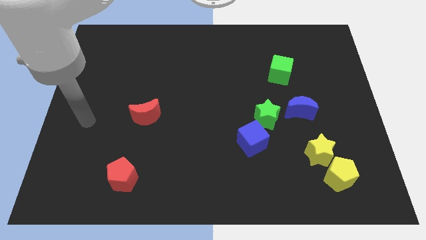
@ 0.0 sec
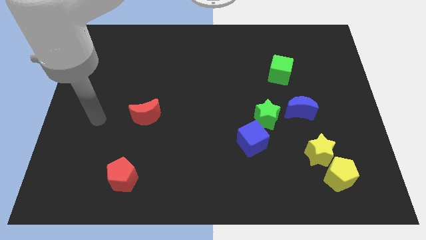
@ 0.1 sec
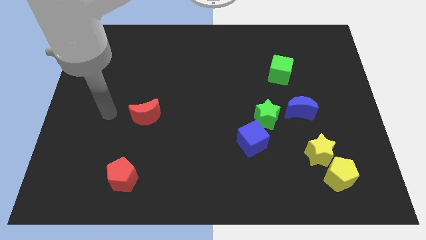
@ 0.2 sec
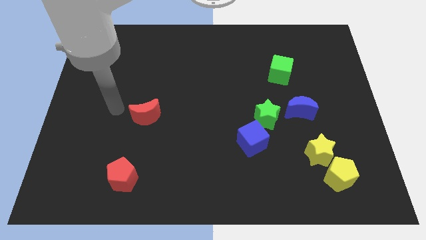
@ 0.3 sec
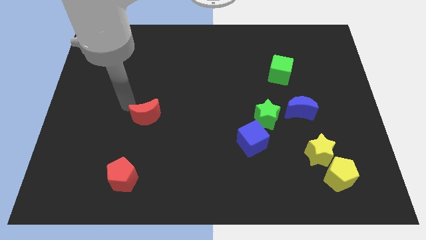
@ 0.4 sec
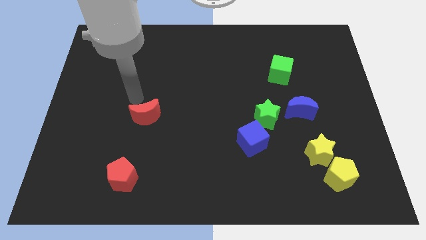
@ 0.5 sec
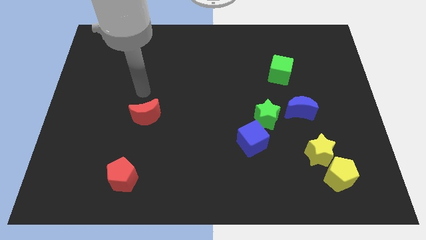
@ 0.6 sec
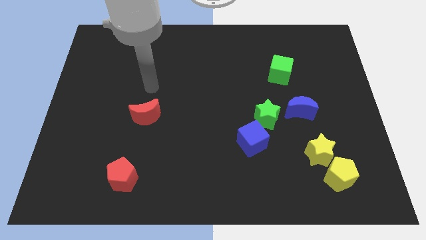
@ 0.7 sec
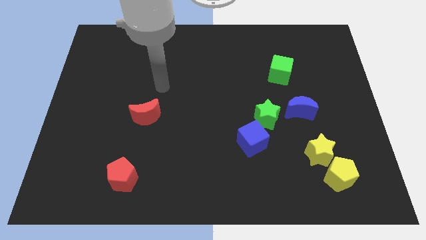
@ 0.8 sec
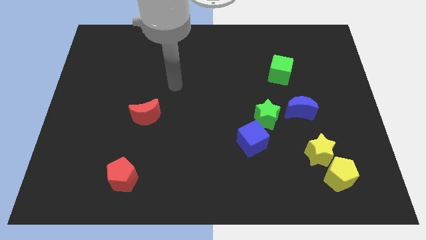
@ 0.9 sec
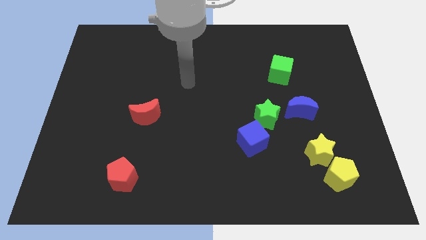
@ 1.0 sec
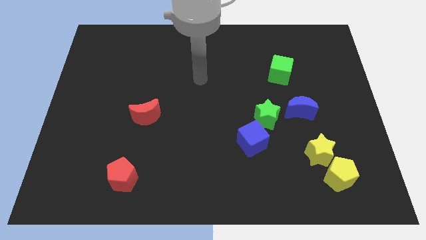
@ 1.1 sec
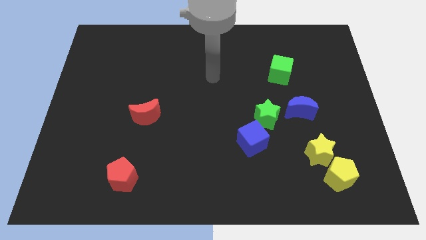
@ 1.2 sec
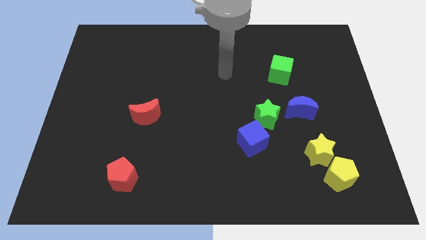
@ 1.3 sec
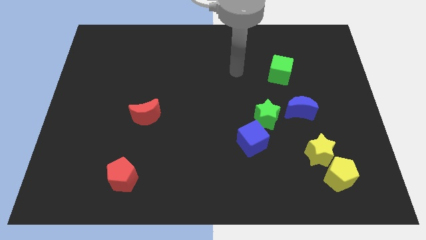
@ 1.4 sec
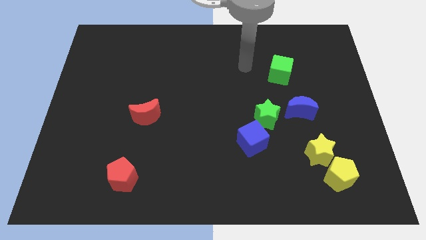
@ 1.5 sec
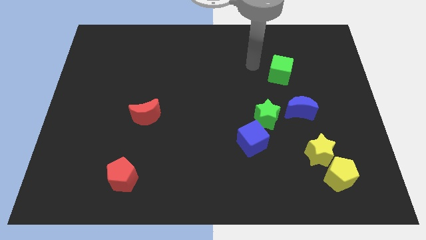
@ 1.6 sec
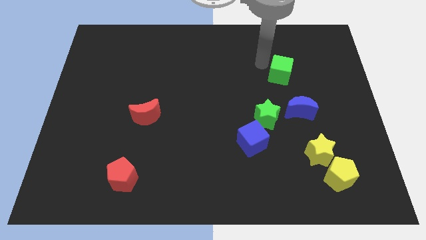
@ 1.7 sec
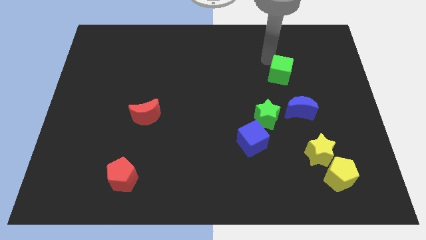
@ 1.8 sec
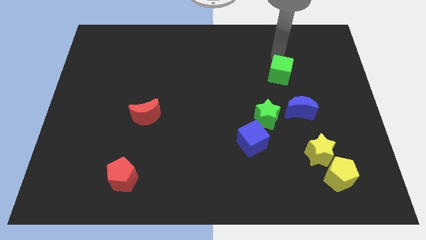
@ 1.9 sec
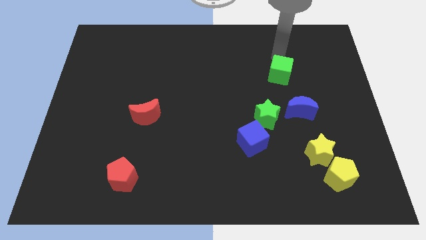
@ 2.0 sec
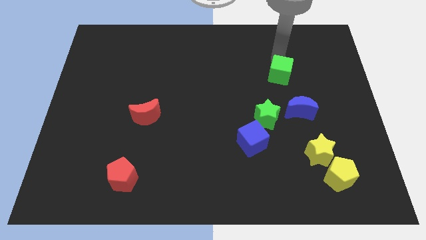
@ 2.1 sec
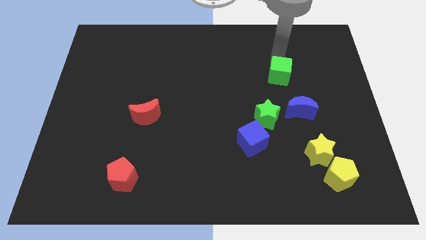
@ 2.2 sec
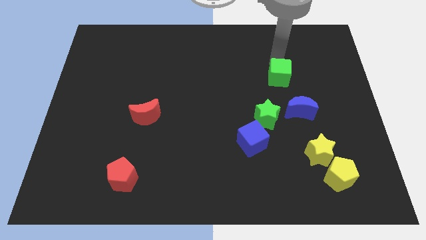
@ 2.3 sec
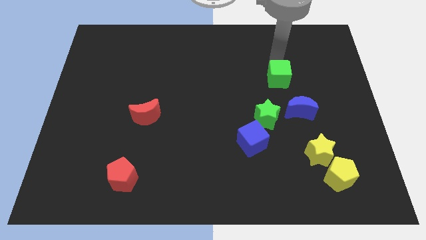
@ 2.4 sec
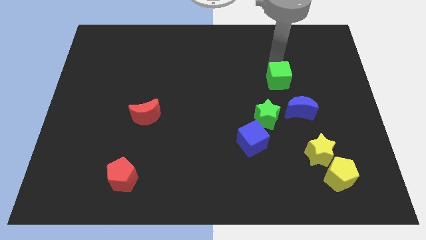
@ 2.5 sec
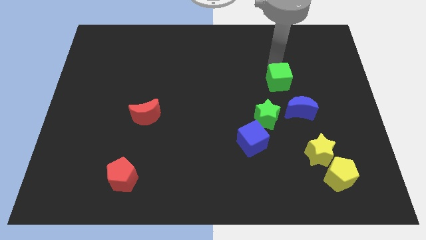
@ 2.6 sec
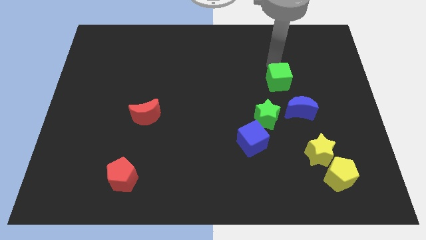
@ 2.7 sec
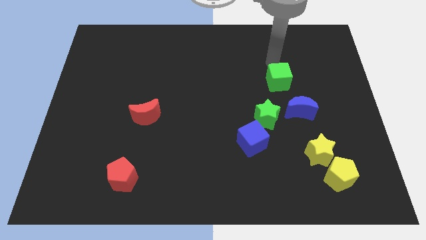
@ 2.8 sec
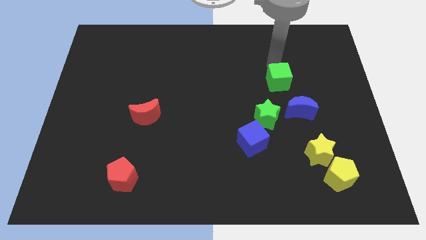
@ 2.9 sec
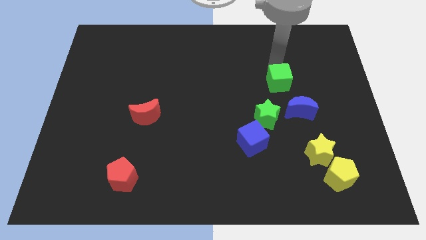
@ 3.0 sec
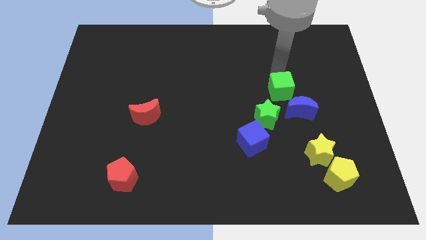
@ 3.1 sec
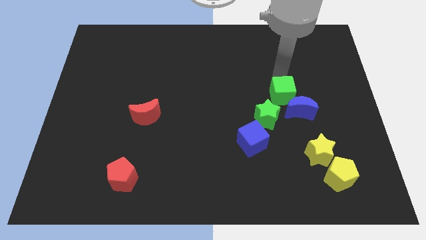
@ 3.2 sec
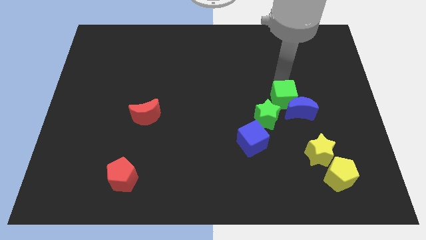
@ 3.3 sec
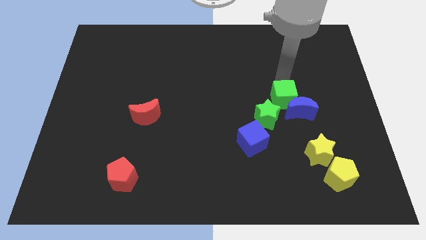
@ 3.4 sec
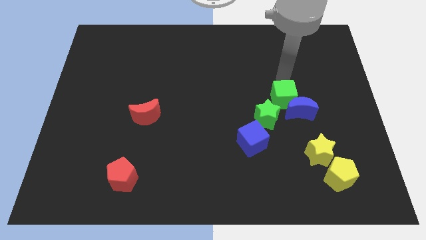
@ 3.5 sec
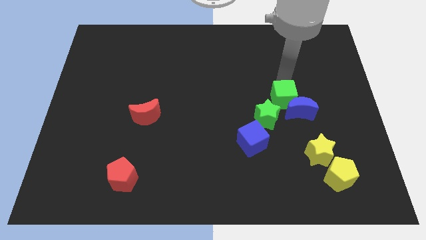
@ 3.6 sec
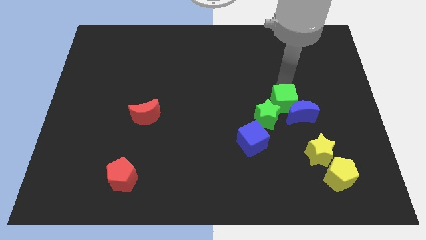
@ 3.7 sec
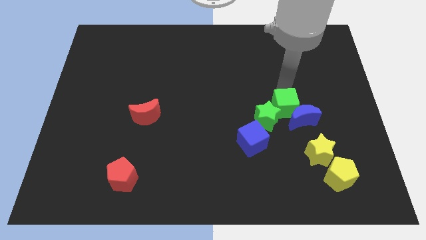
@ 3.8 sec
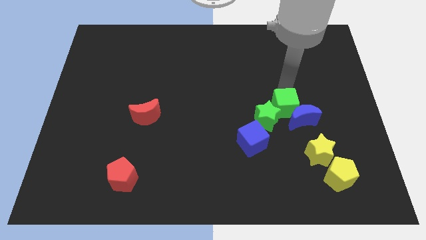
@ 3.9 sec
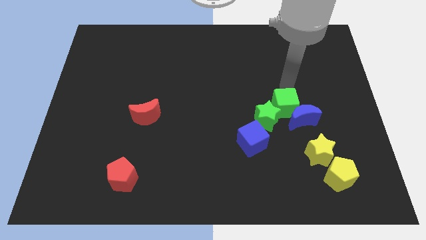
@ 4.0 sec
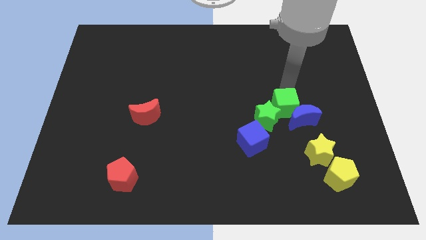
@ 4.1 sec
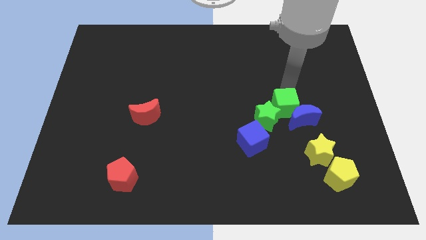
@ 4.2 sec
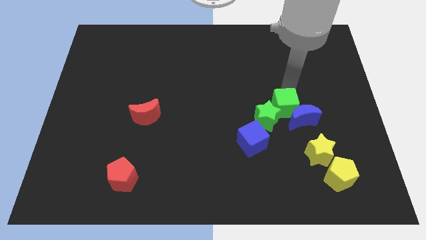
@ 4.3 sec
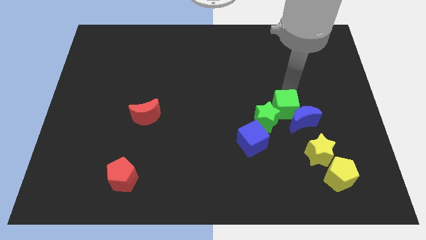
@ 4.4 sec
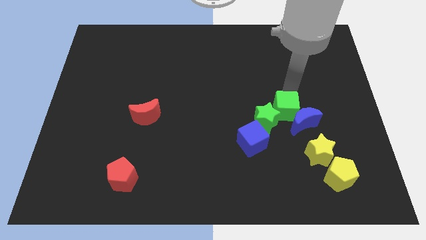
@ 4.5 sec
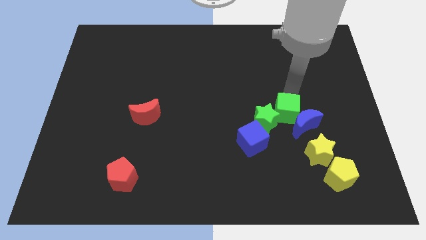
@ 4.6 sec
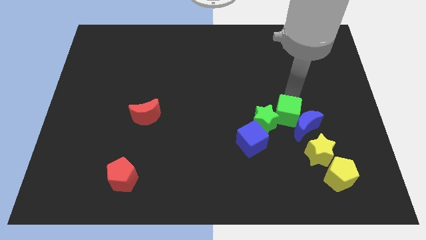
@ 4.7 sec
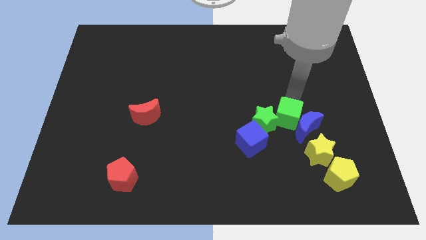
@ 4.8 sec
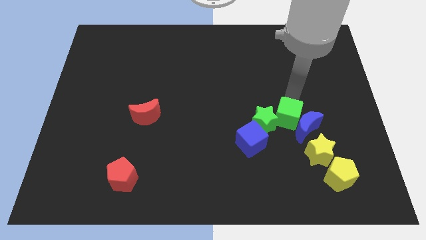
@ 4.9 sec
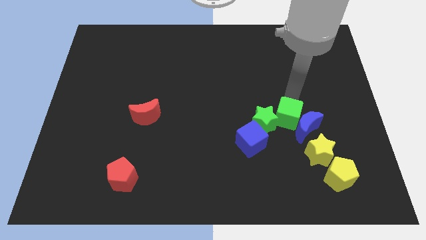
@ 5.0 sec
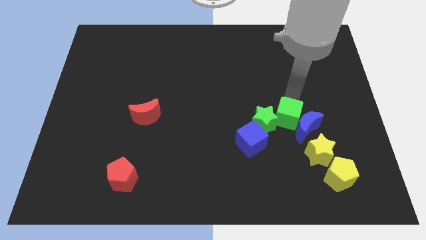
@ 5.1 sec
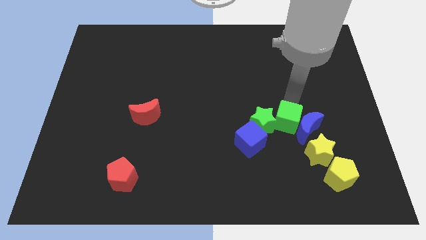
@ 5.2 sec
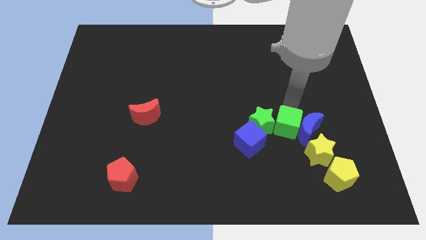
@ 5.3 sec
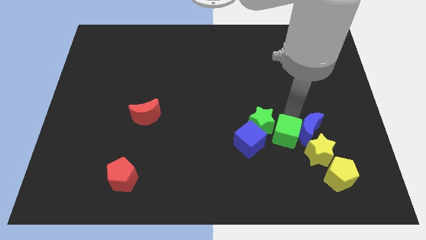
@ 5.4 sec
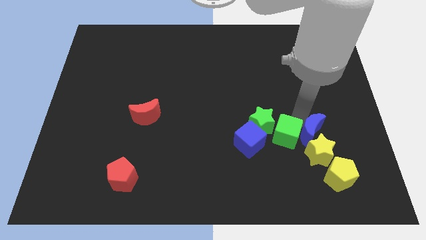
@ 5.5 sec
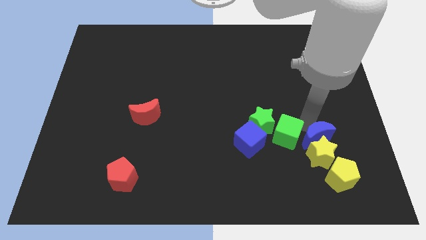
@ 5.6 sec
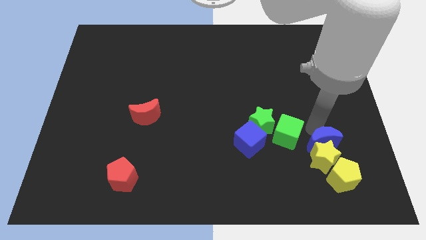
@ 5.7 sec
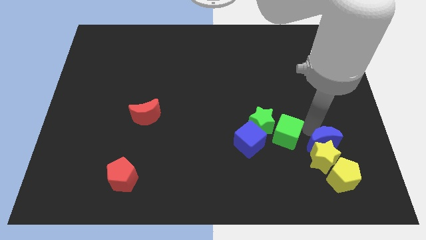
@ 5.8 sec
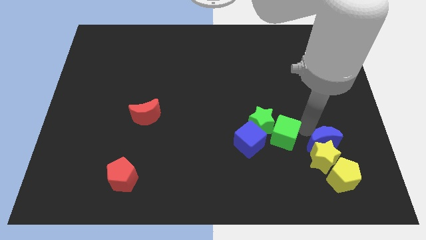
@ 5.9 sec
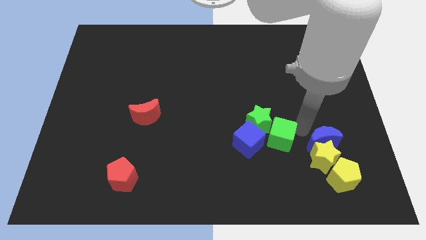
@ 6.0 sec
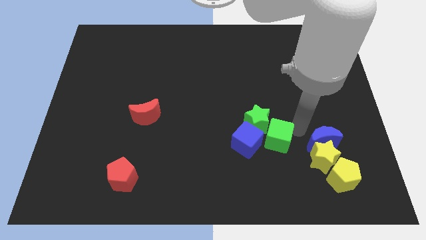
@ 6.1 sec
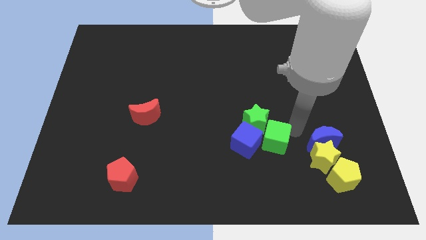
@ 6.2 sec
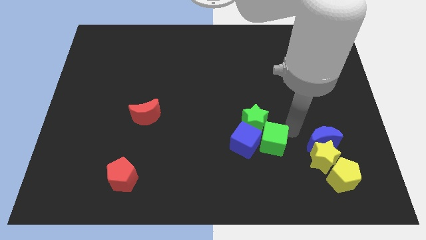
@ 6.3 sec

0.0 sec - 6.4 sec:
push the green cube next to the blue cube

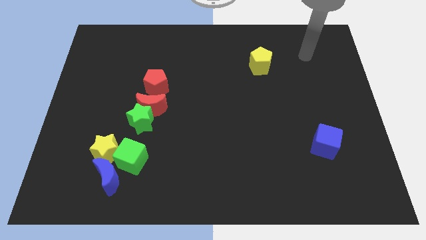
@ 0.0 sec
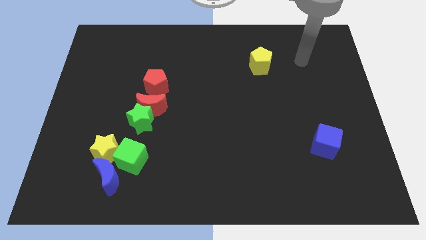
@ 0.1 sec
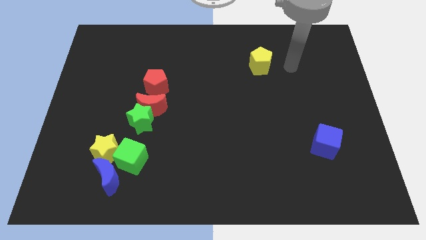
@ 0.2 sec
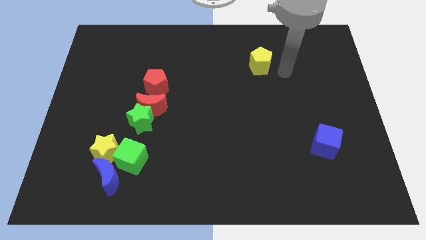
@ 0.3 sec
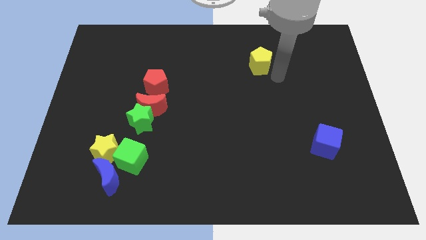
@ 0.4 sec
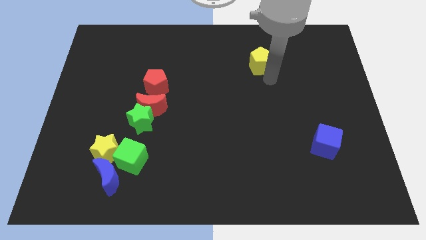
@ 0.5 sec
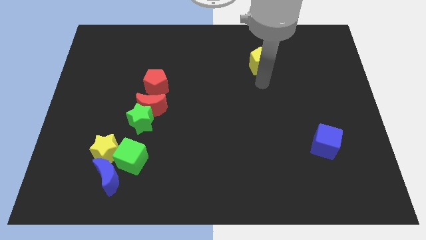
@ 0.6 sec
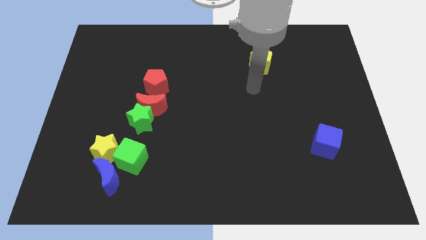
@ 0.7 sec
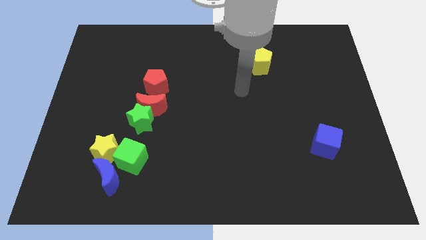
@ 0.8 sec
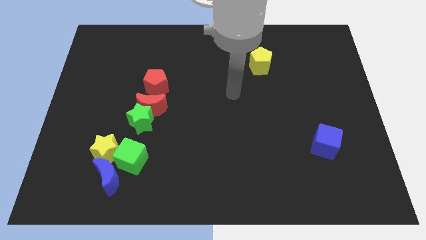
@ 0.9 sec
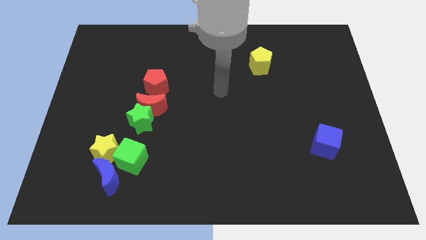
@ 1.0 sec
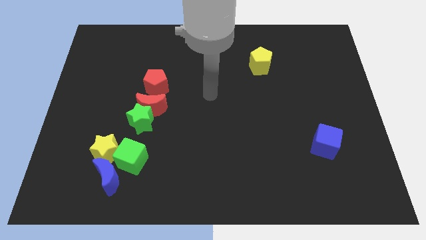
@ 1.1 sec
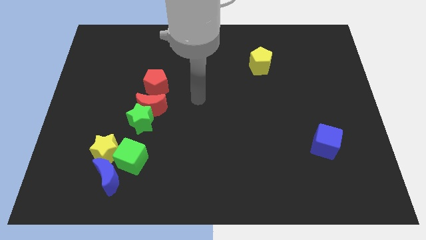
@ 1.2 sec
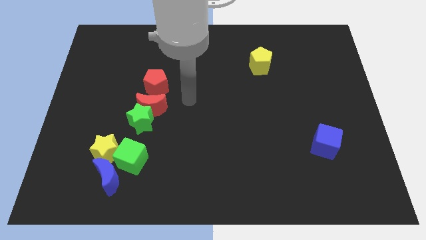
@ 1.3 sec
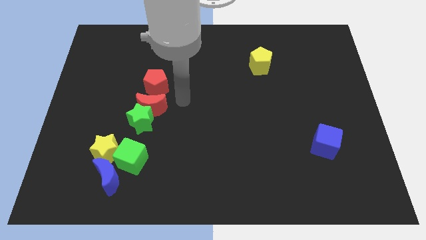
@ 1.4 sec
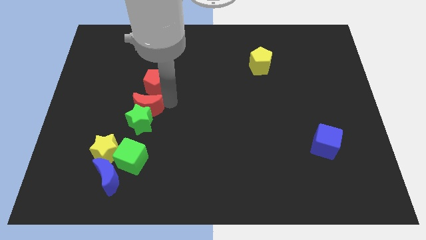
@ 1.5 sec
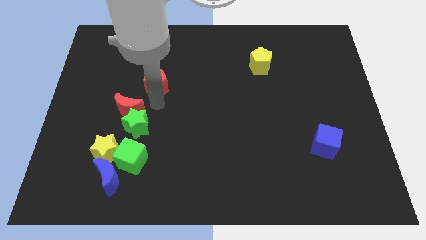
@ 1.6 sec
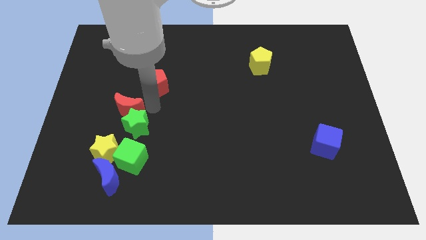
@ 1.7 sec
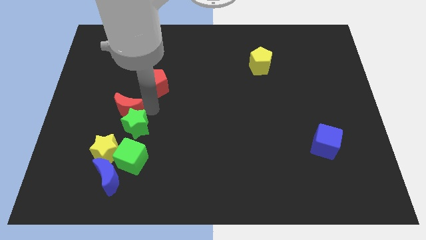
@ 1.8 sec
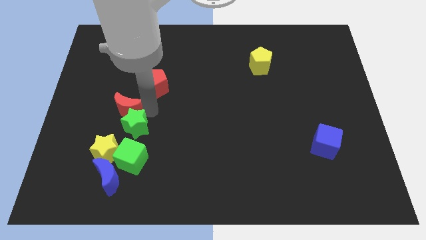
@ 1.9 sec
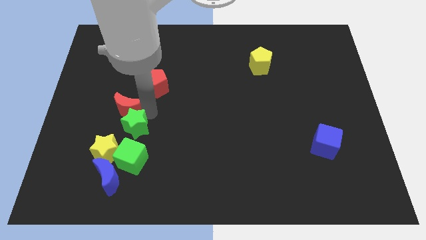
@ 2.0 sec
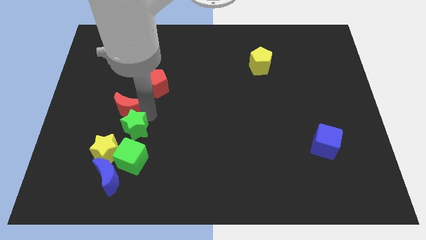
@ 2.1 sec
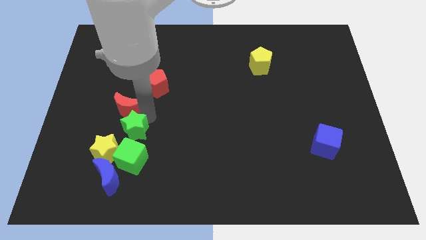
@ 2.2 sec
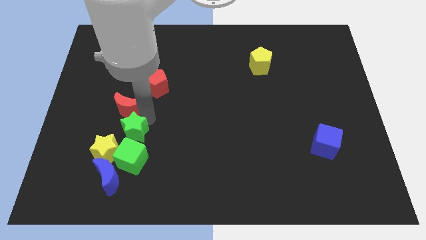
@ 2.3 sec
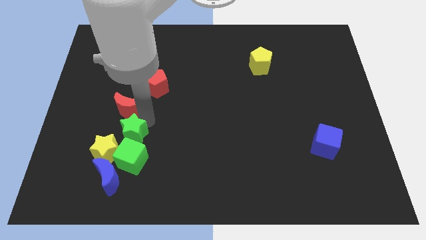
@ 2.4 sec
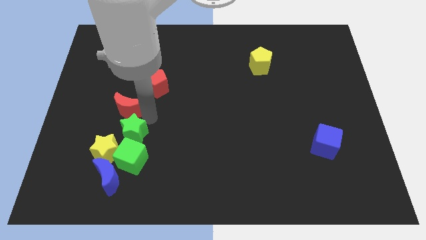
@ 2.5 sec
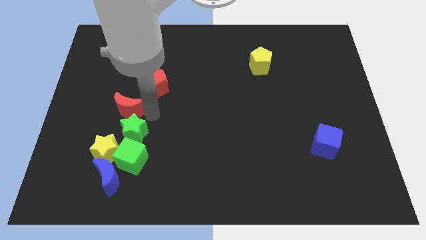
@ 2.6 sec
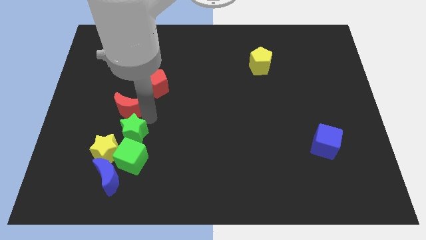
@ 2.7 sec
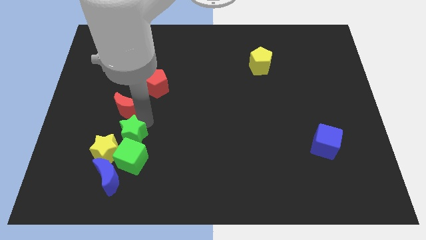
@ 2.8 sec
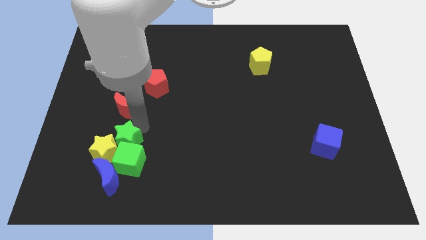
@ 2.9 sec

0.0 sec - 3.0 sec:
slide the green star towards the yellow star
